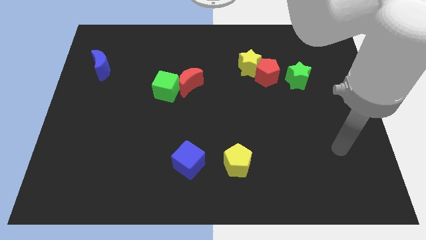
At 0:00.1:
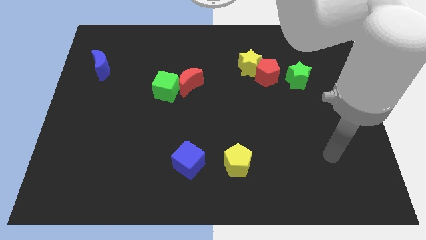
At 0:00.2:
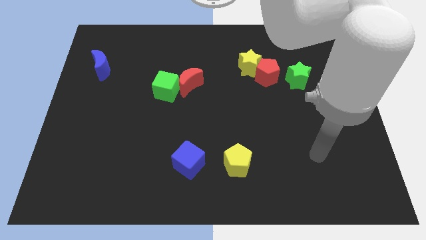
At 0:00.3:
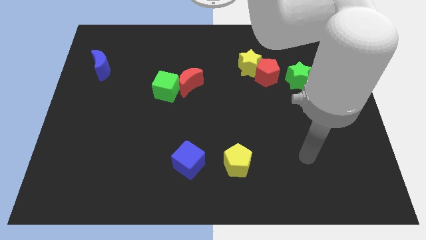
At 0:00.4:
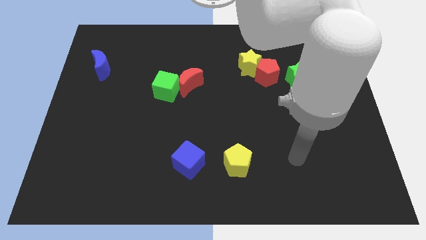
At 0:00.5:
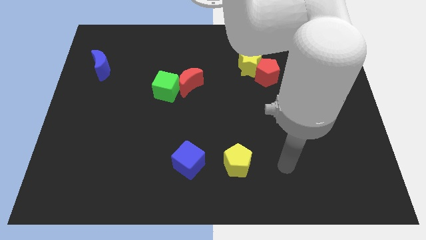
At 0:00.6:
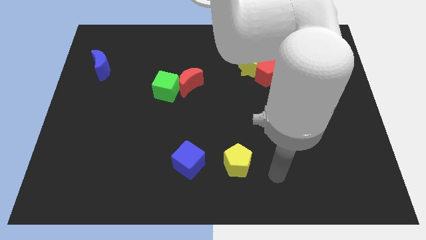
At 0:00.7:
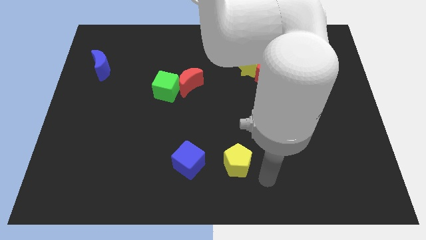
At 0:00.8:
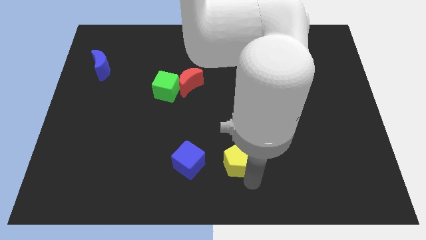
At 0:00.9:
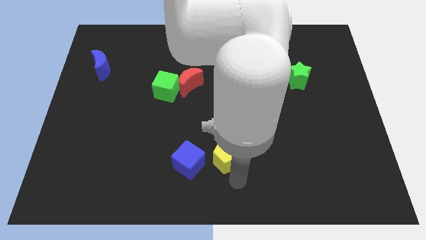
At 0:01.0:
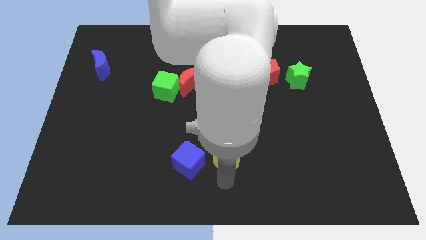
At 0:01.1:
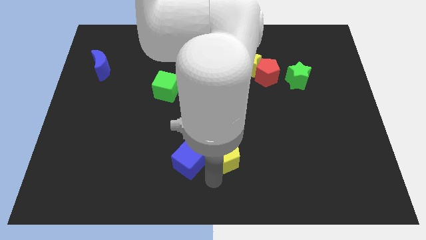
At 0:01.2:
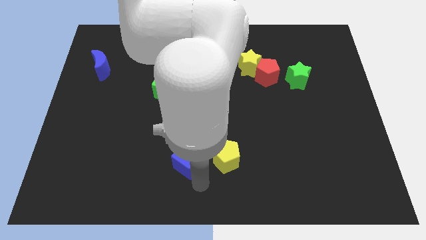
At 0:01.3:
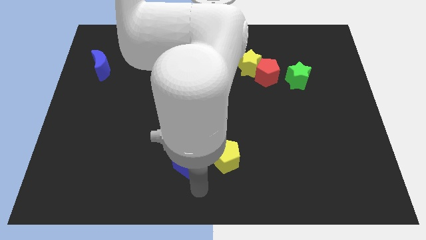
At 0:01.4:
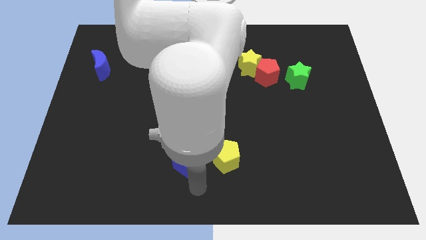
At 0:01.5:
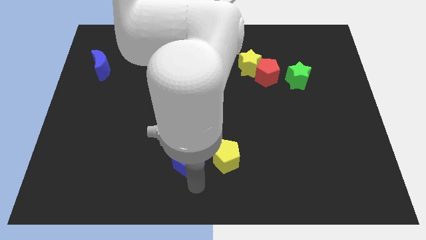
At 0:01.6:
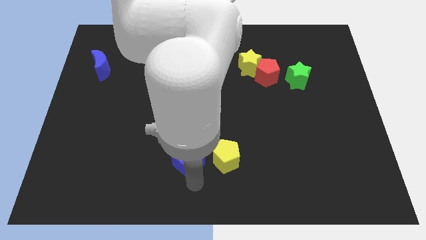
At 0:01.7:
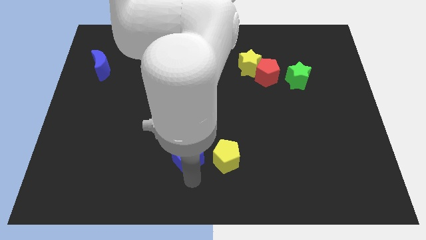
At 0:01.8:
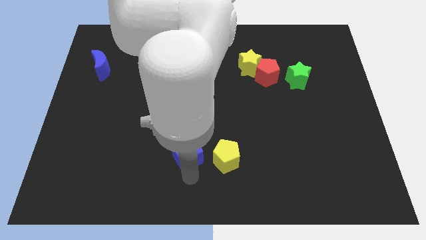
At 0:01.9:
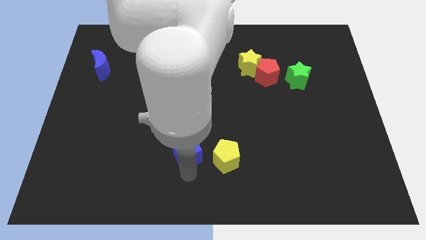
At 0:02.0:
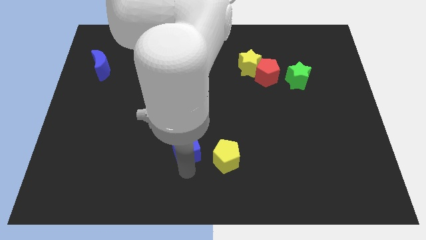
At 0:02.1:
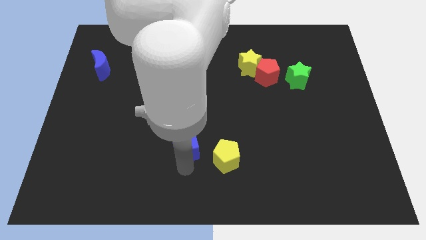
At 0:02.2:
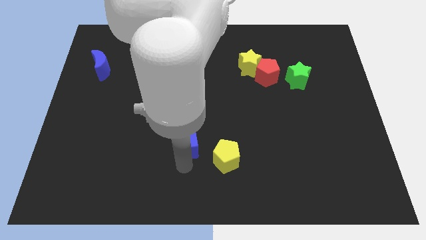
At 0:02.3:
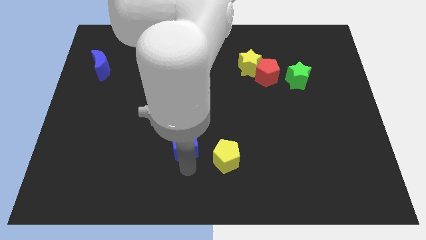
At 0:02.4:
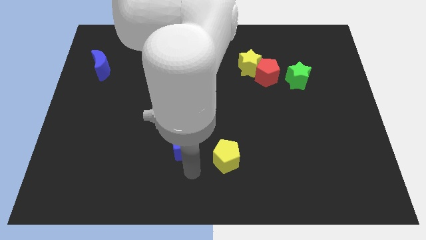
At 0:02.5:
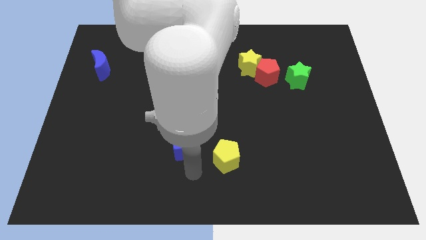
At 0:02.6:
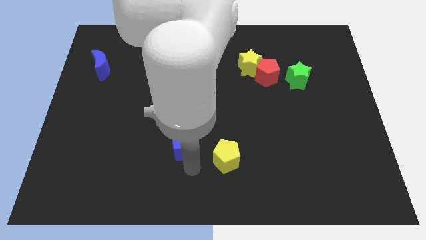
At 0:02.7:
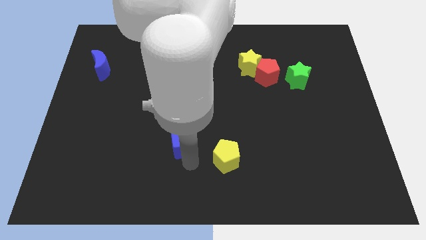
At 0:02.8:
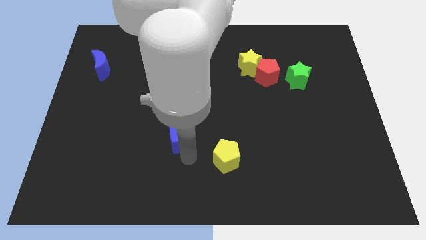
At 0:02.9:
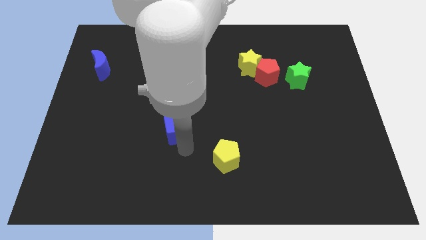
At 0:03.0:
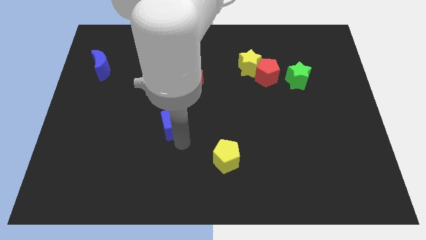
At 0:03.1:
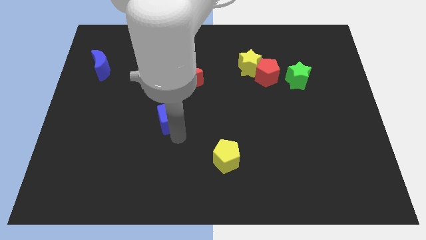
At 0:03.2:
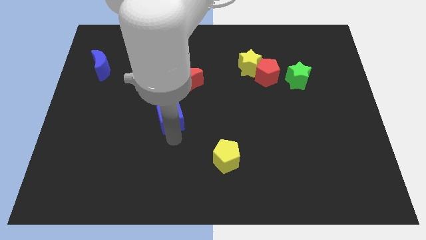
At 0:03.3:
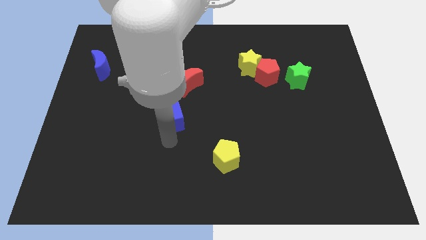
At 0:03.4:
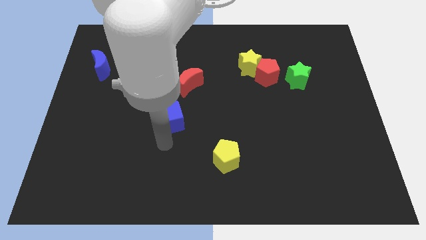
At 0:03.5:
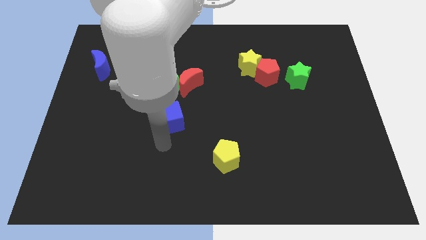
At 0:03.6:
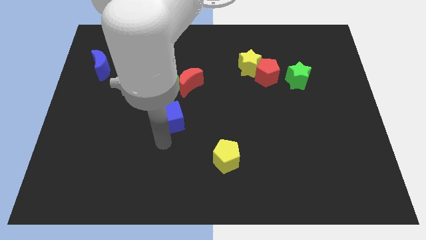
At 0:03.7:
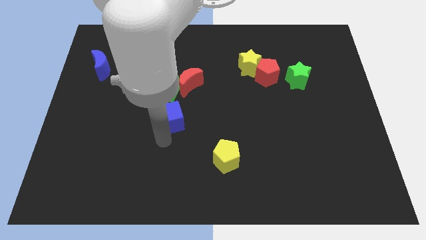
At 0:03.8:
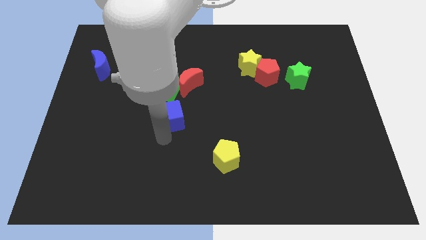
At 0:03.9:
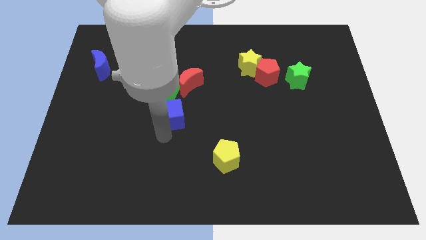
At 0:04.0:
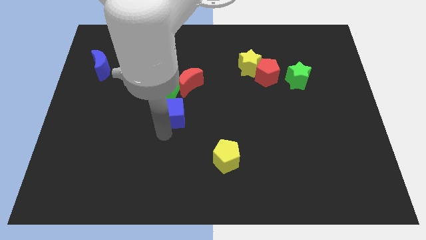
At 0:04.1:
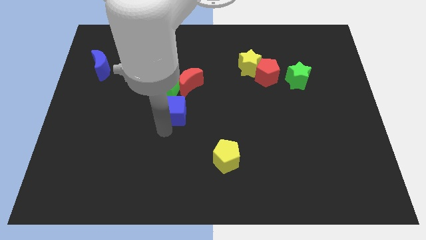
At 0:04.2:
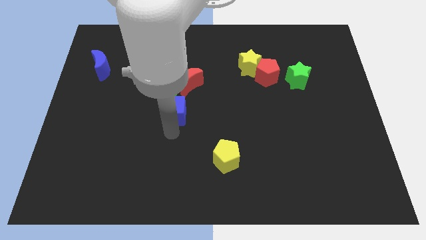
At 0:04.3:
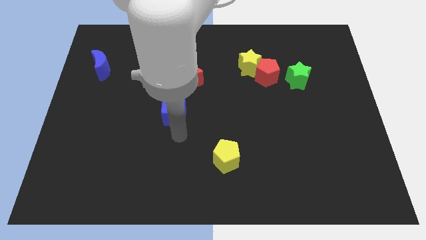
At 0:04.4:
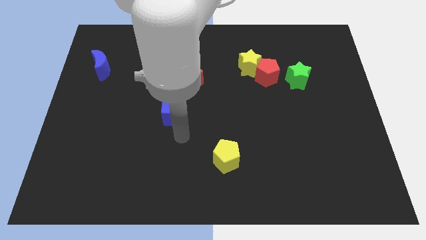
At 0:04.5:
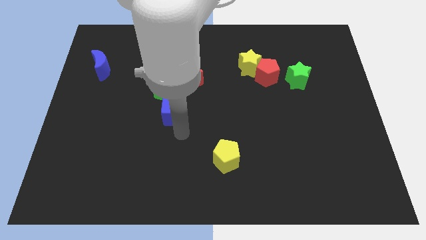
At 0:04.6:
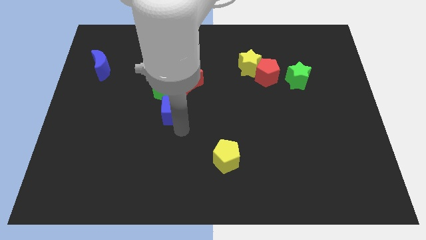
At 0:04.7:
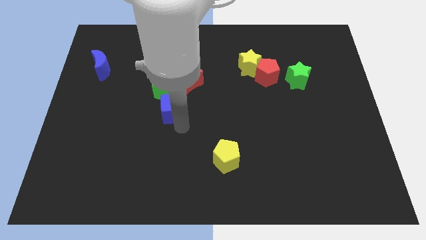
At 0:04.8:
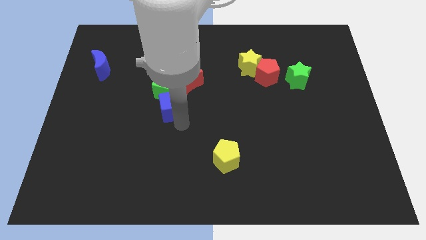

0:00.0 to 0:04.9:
move the blue cube towards the green cube

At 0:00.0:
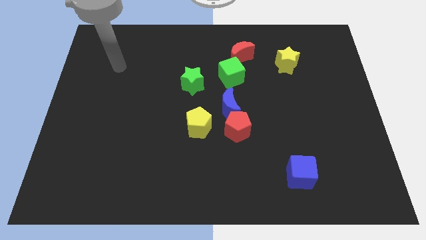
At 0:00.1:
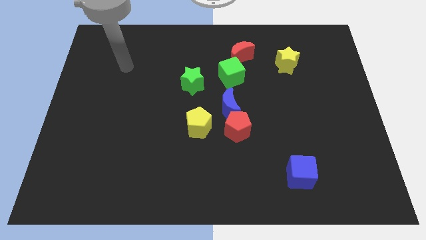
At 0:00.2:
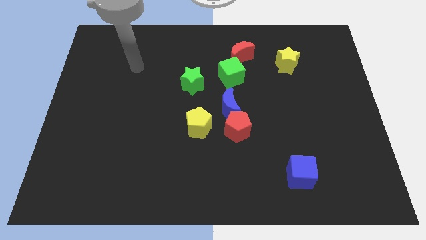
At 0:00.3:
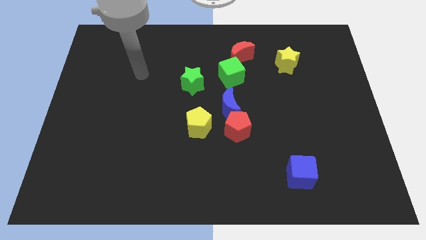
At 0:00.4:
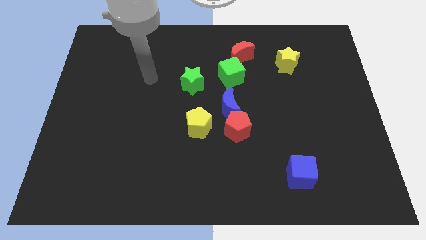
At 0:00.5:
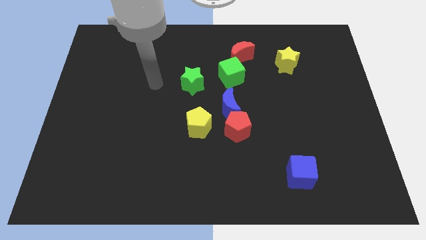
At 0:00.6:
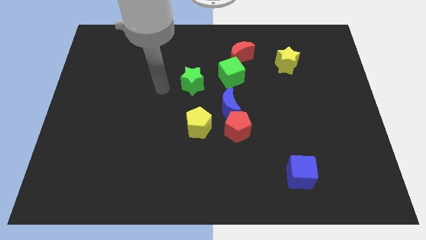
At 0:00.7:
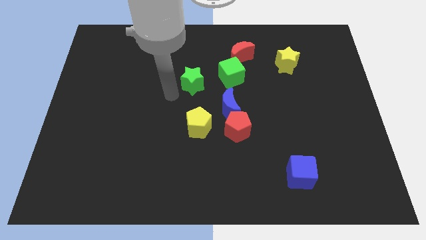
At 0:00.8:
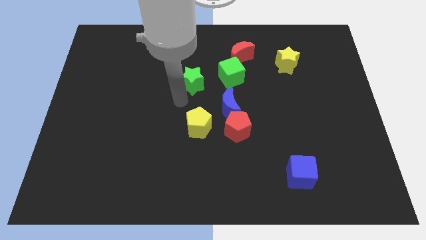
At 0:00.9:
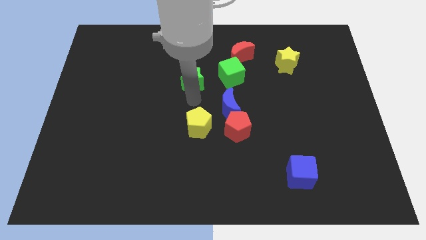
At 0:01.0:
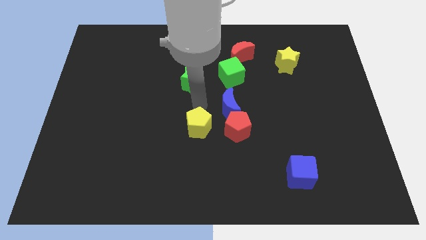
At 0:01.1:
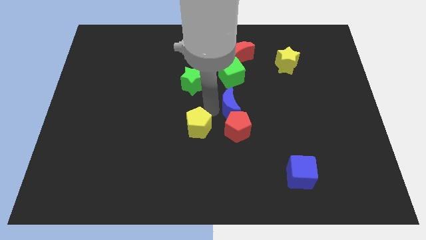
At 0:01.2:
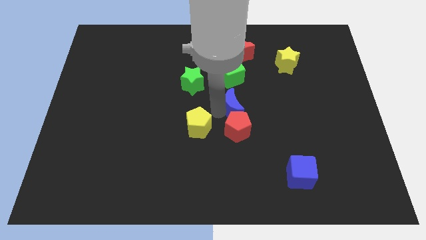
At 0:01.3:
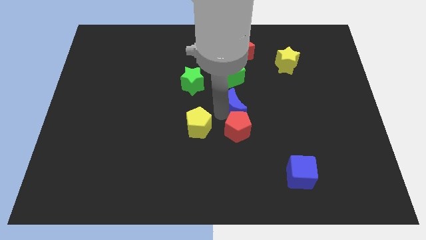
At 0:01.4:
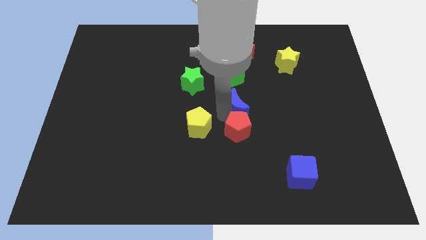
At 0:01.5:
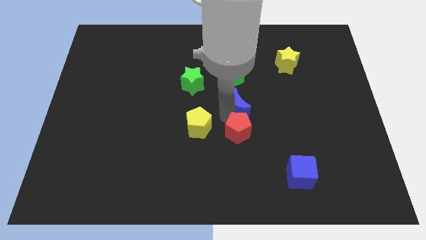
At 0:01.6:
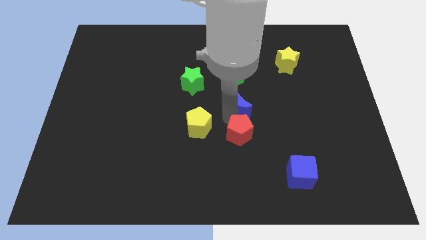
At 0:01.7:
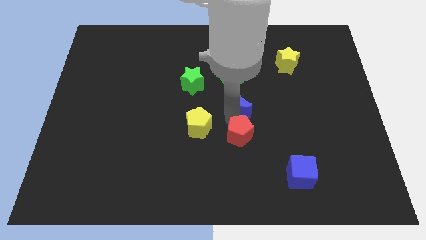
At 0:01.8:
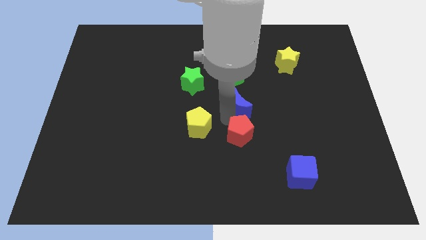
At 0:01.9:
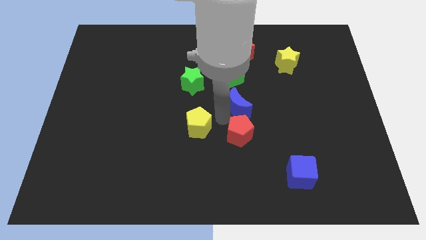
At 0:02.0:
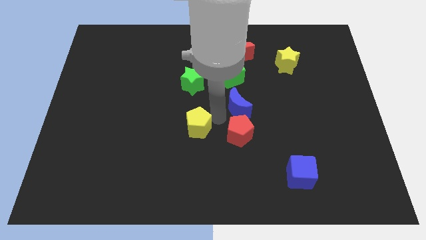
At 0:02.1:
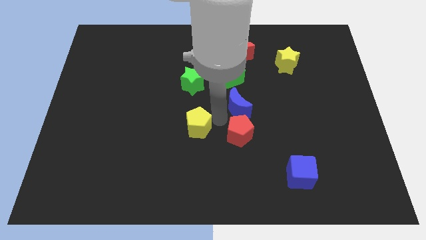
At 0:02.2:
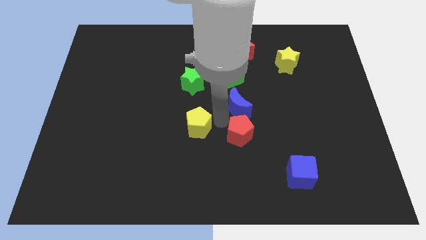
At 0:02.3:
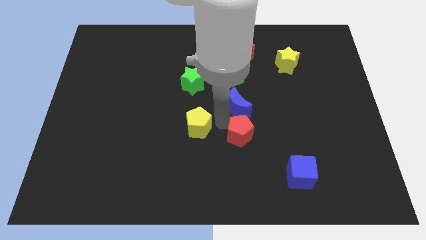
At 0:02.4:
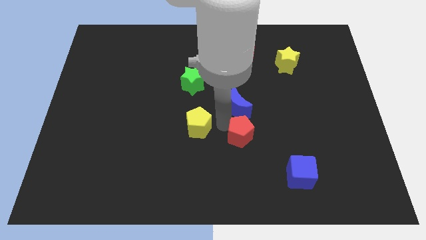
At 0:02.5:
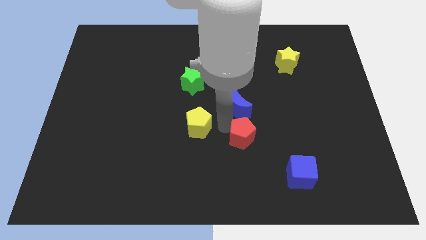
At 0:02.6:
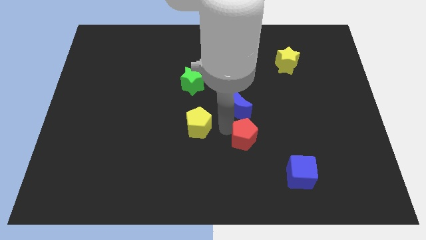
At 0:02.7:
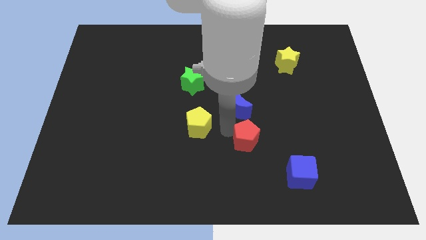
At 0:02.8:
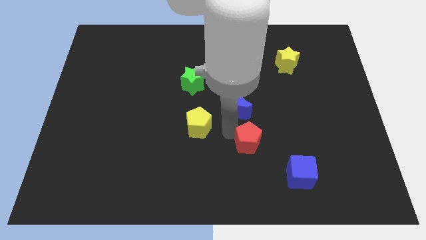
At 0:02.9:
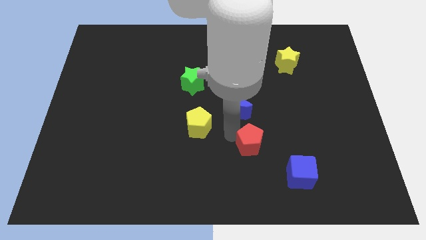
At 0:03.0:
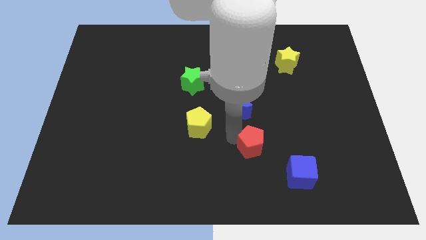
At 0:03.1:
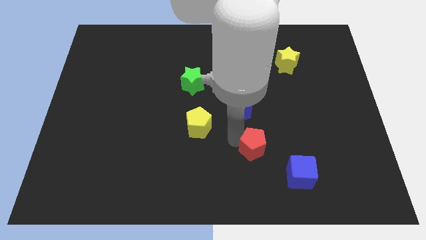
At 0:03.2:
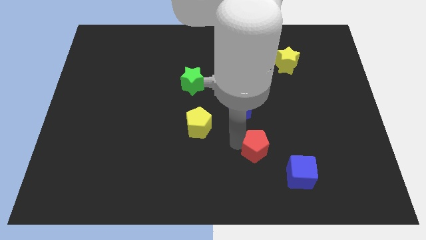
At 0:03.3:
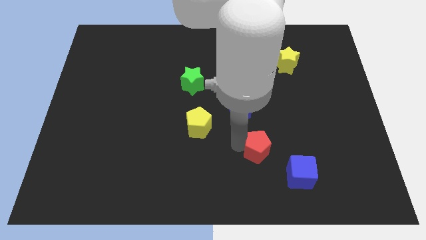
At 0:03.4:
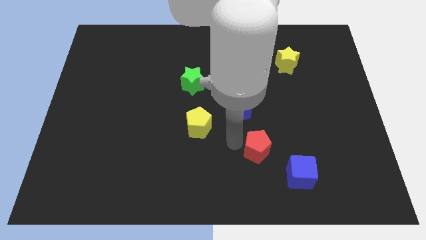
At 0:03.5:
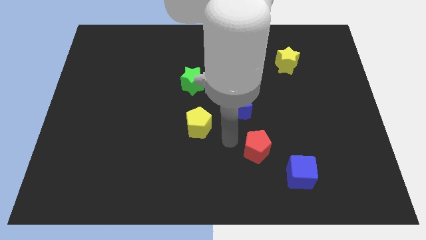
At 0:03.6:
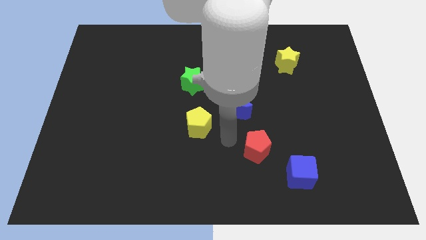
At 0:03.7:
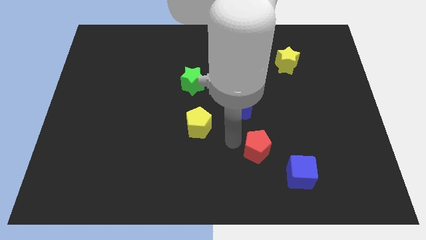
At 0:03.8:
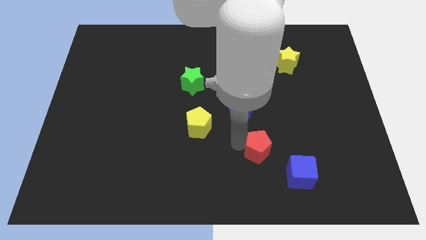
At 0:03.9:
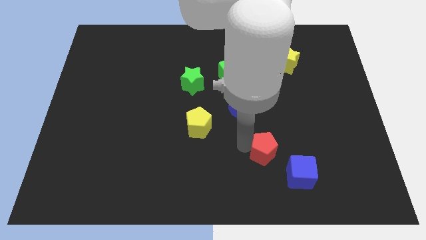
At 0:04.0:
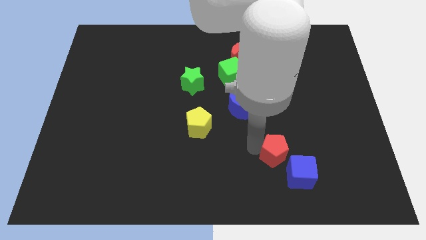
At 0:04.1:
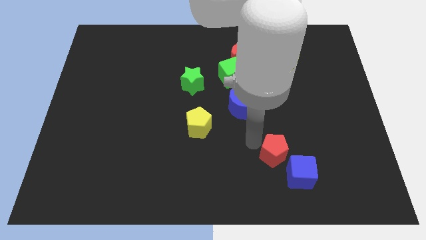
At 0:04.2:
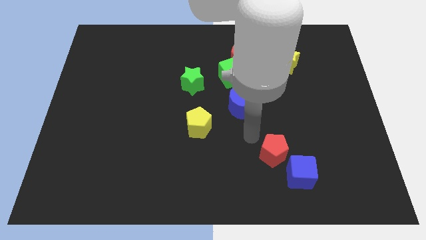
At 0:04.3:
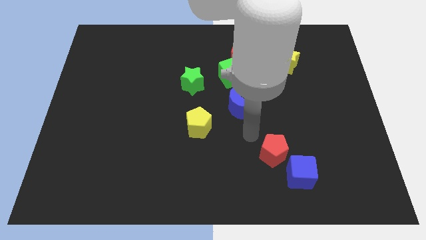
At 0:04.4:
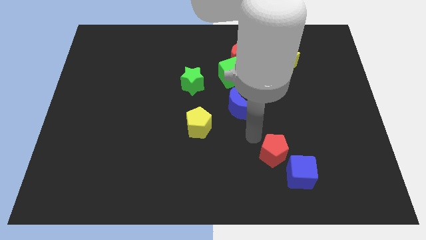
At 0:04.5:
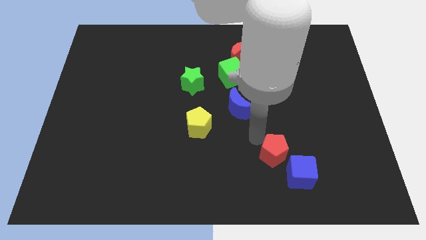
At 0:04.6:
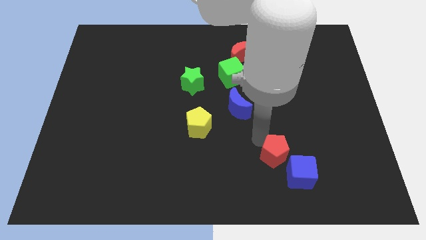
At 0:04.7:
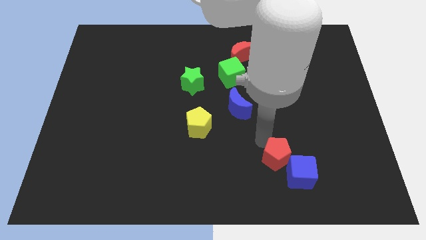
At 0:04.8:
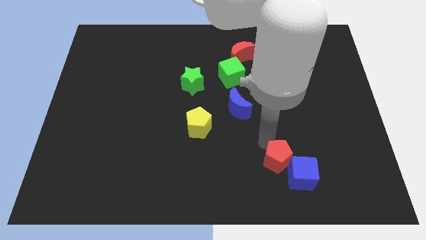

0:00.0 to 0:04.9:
put the red pentagon close to the blue cube
